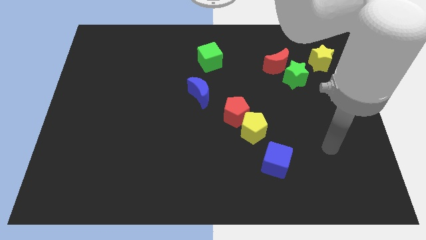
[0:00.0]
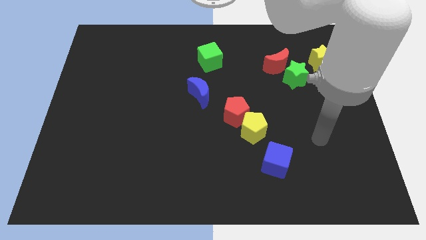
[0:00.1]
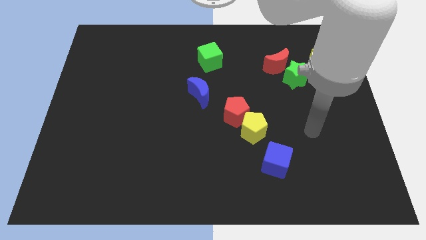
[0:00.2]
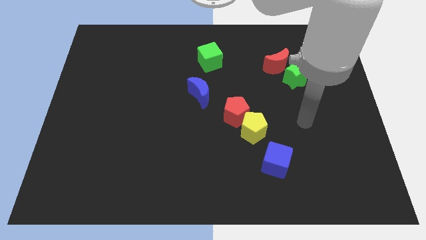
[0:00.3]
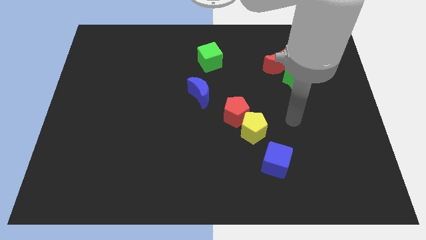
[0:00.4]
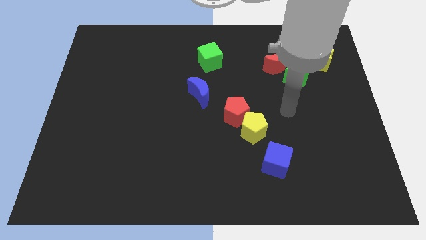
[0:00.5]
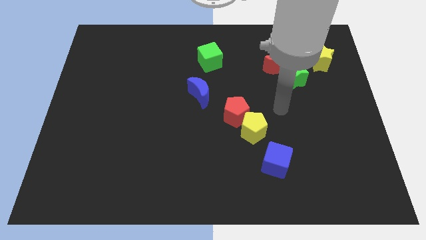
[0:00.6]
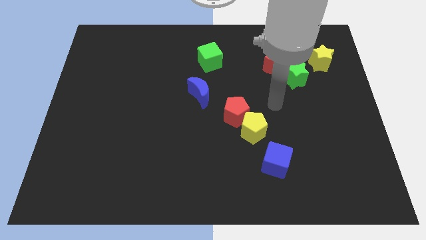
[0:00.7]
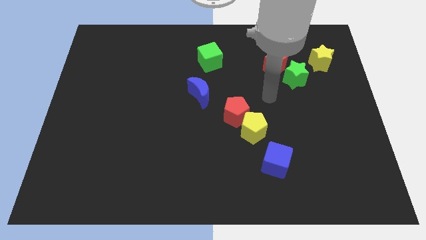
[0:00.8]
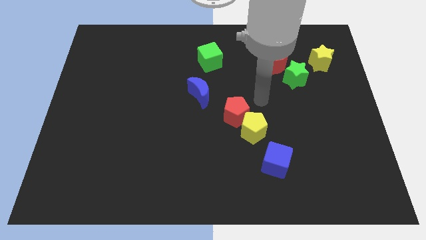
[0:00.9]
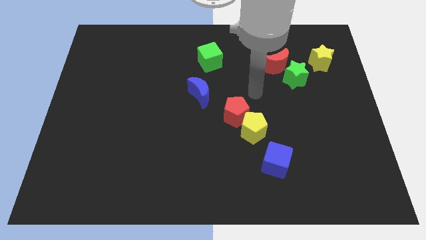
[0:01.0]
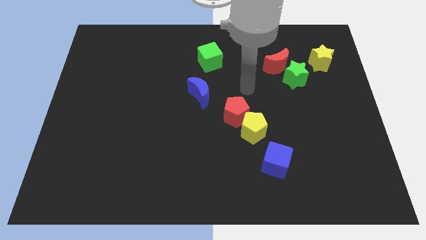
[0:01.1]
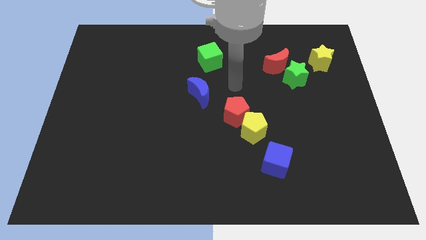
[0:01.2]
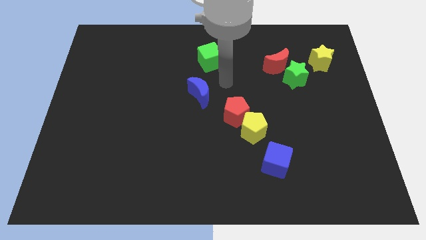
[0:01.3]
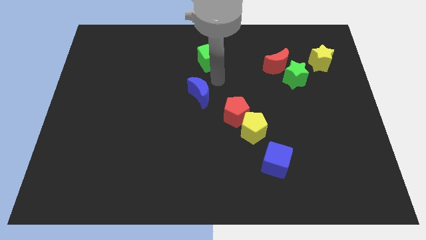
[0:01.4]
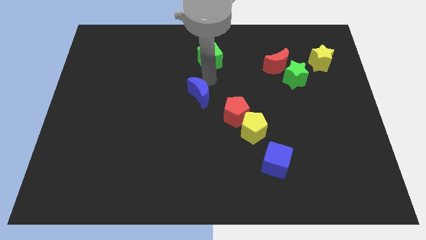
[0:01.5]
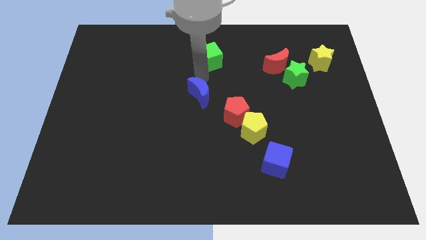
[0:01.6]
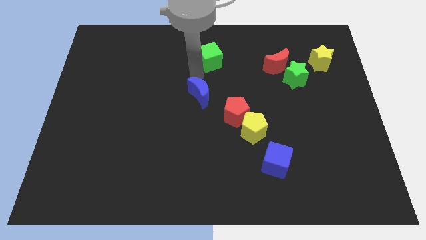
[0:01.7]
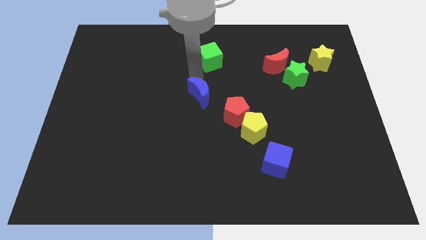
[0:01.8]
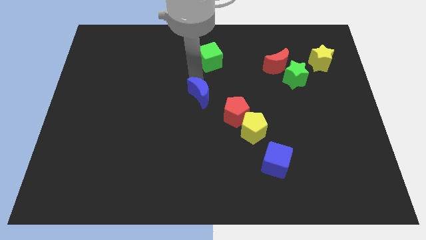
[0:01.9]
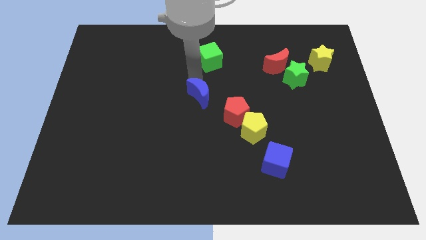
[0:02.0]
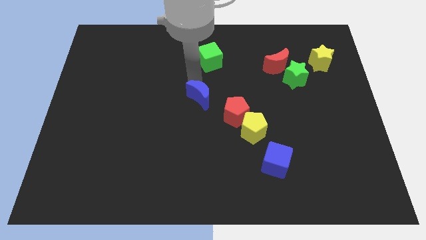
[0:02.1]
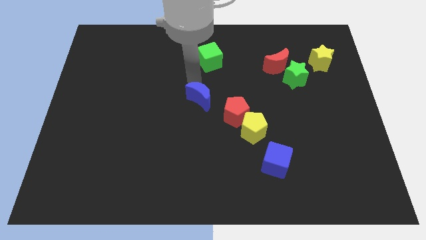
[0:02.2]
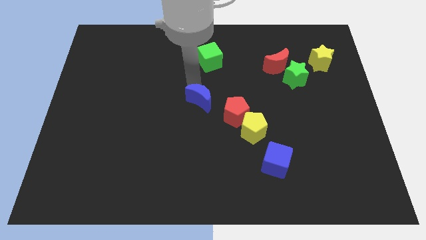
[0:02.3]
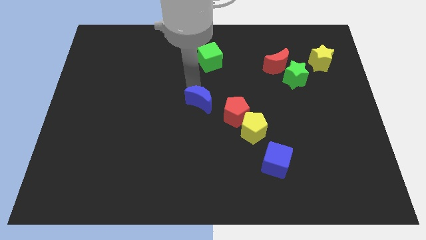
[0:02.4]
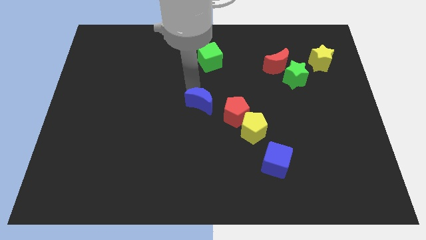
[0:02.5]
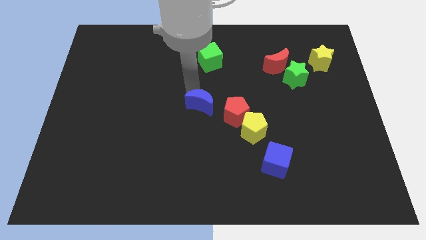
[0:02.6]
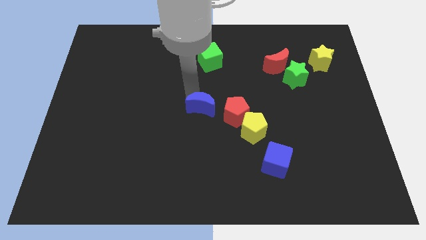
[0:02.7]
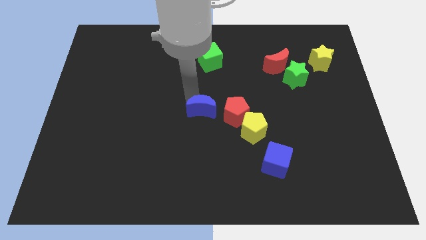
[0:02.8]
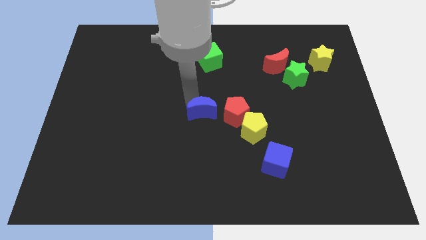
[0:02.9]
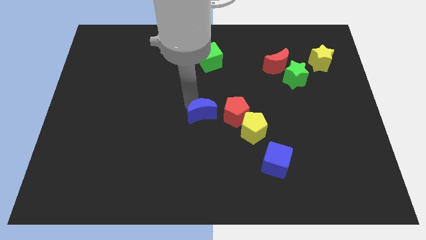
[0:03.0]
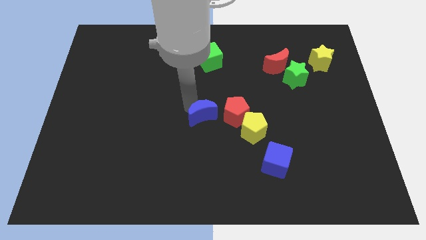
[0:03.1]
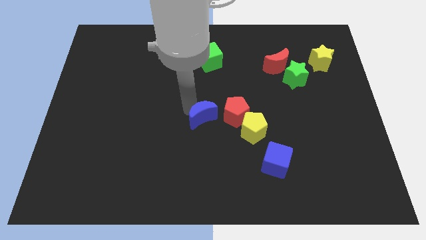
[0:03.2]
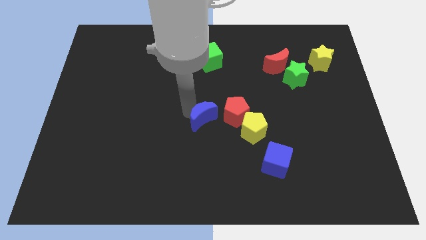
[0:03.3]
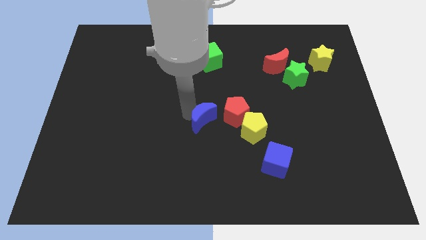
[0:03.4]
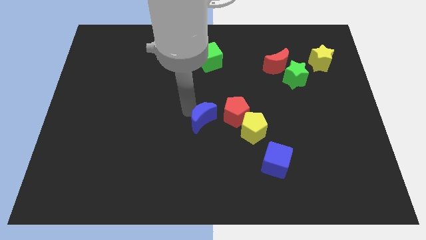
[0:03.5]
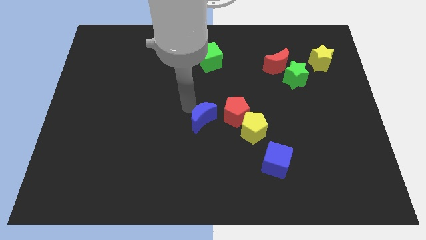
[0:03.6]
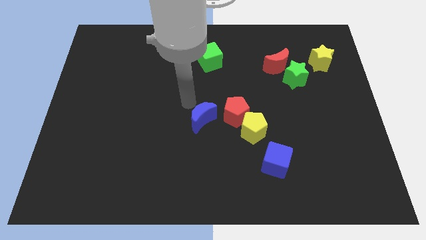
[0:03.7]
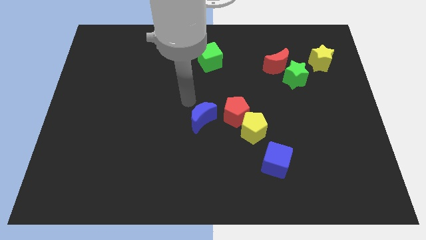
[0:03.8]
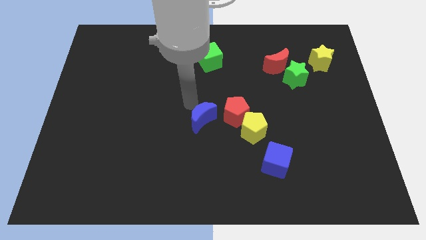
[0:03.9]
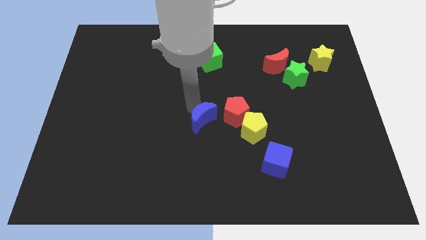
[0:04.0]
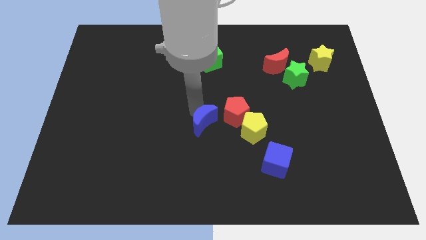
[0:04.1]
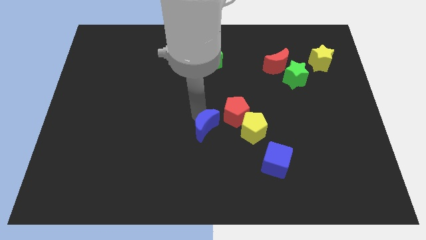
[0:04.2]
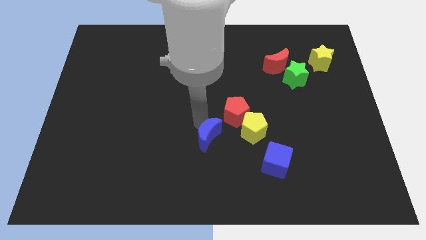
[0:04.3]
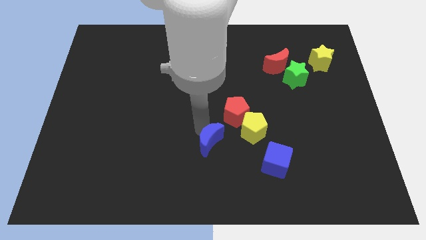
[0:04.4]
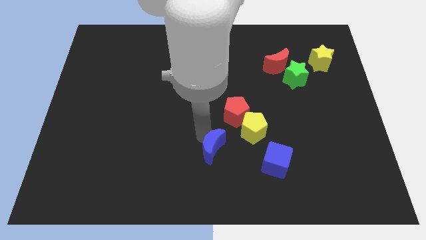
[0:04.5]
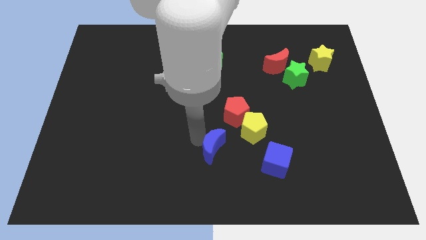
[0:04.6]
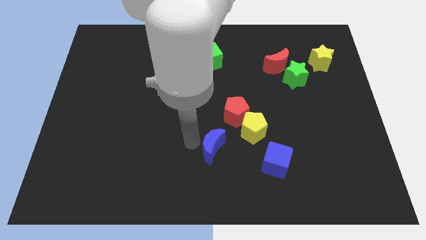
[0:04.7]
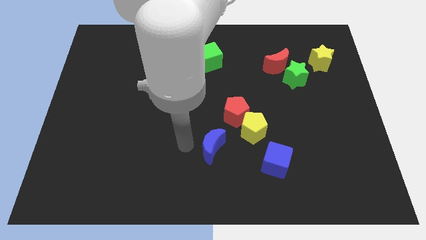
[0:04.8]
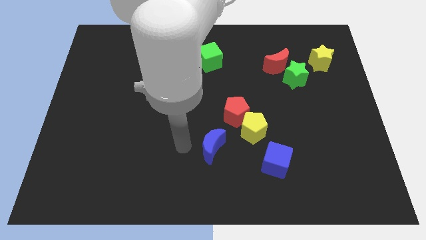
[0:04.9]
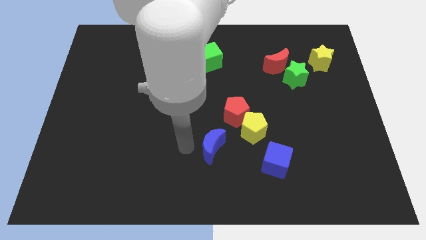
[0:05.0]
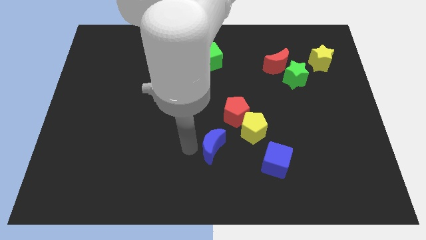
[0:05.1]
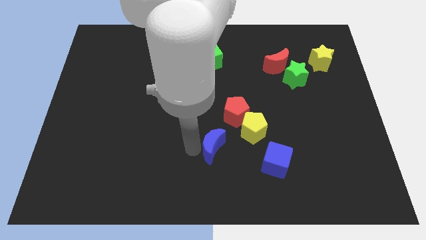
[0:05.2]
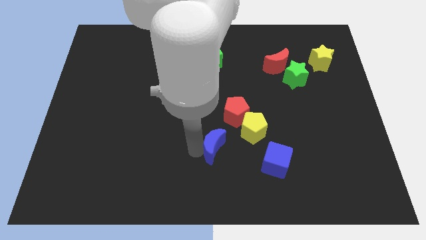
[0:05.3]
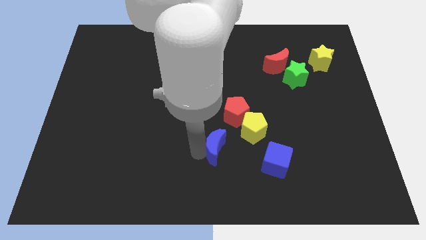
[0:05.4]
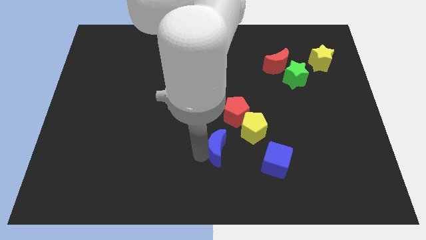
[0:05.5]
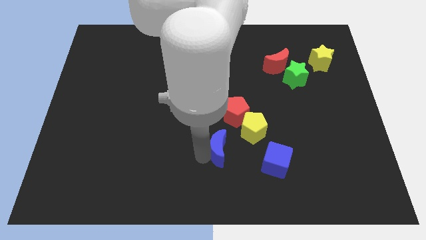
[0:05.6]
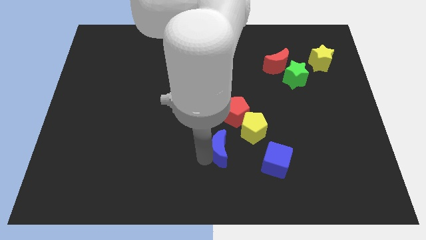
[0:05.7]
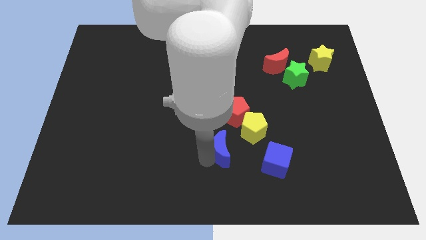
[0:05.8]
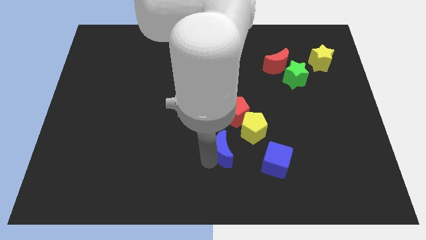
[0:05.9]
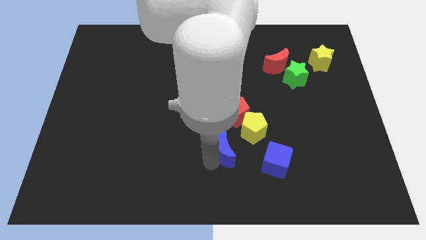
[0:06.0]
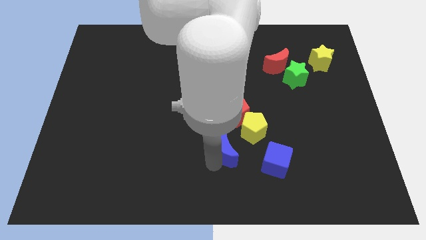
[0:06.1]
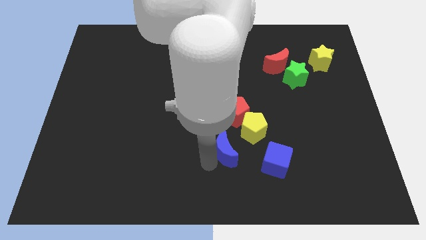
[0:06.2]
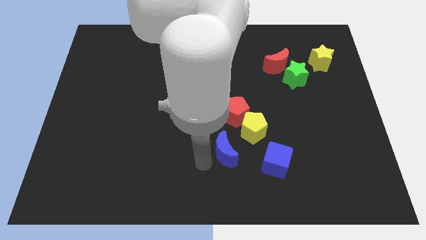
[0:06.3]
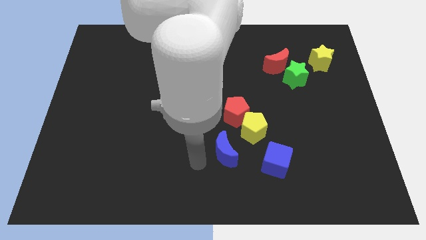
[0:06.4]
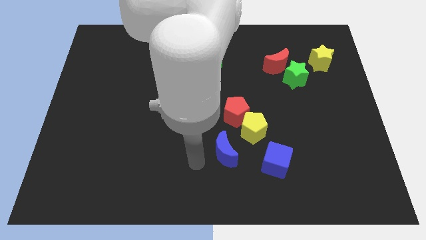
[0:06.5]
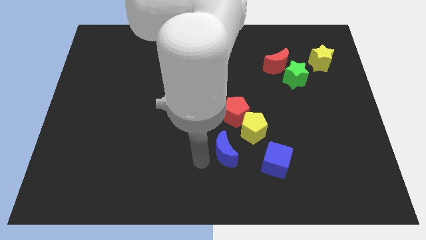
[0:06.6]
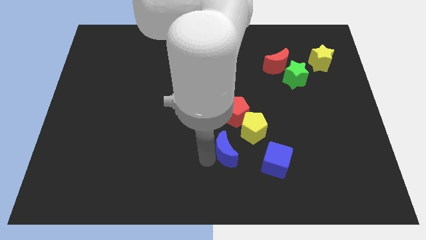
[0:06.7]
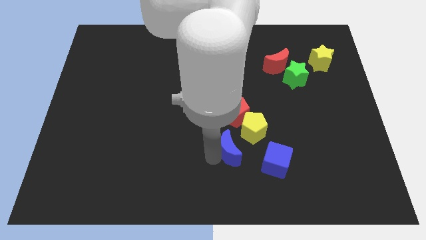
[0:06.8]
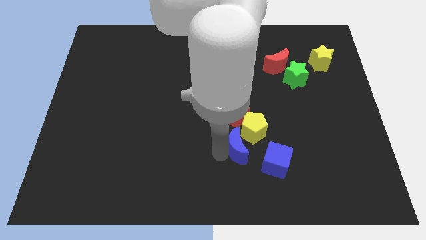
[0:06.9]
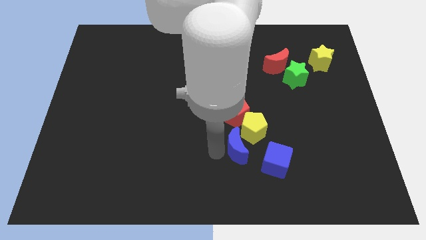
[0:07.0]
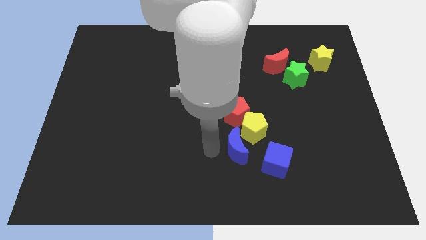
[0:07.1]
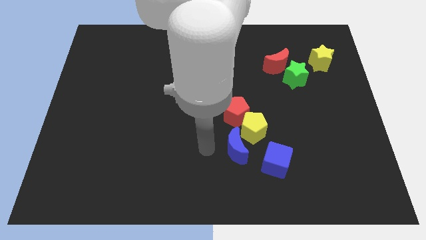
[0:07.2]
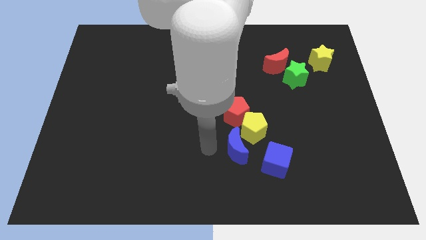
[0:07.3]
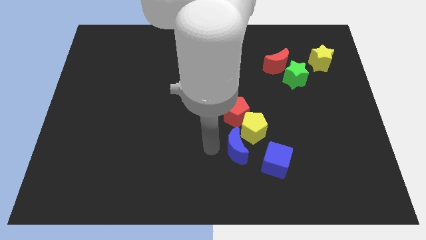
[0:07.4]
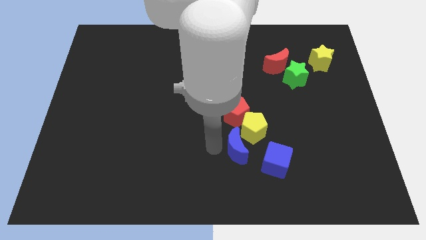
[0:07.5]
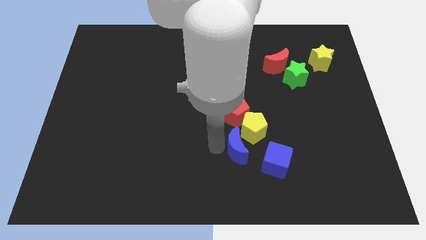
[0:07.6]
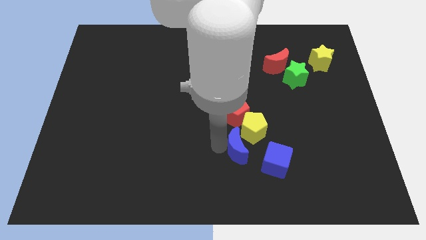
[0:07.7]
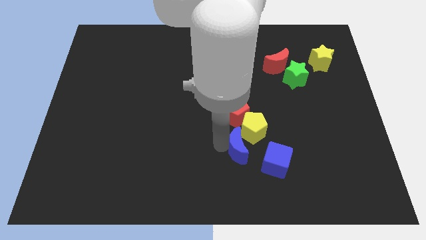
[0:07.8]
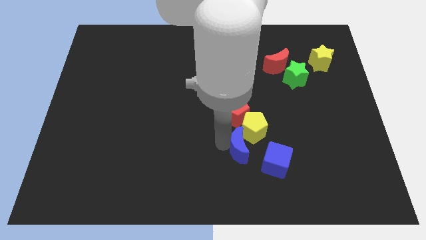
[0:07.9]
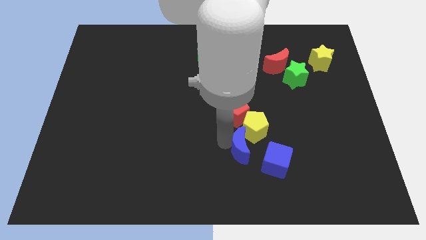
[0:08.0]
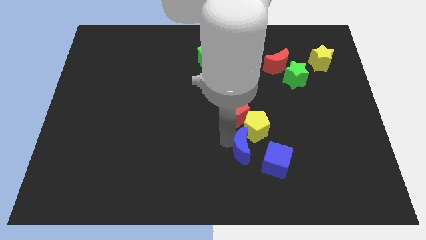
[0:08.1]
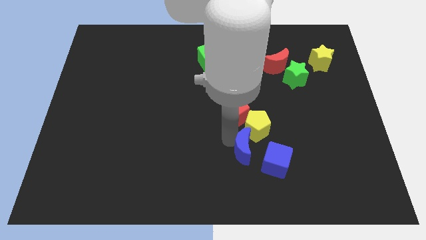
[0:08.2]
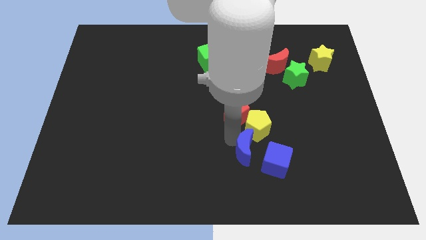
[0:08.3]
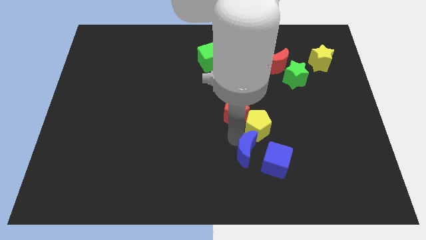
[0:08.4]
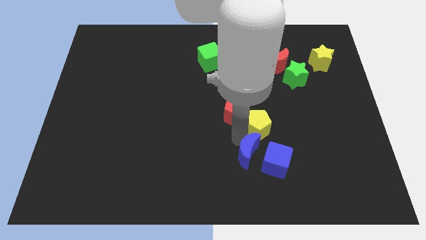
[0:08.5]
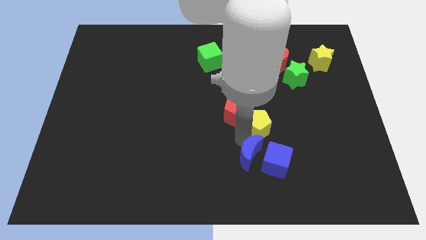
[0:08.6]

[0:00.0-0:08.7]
put the blue moon close to the blue cube
